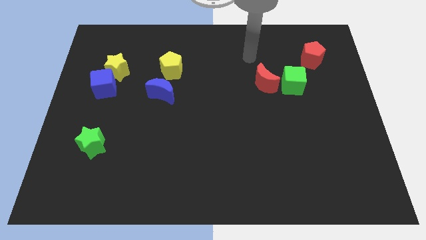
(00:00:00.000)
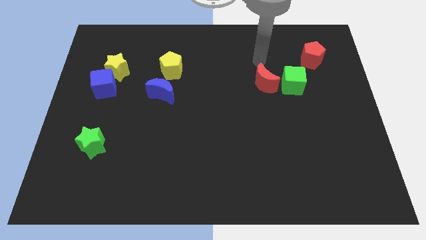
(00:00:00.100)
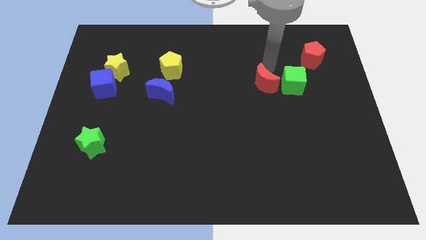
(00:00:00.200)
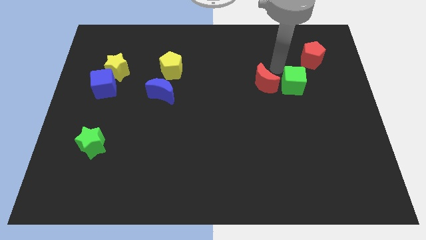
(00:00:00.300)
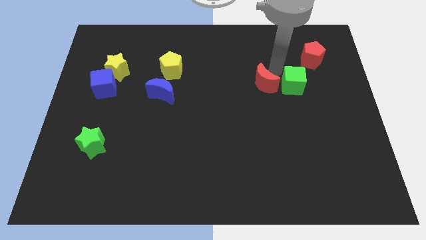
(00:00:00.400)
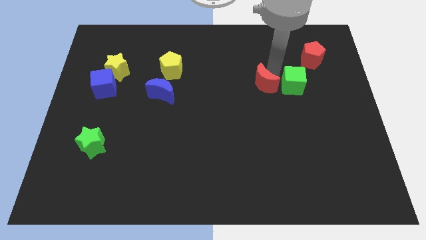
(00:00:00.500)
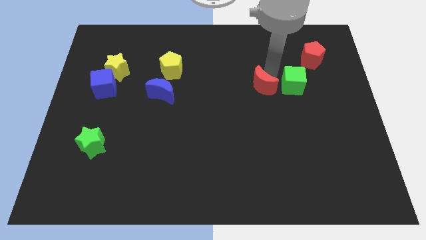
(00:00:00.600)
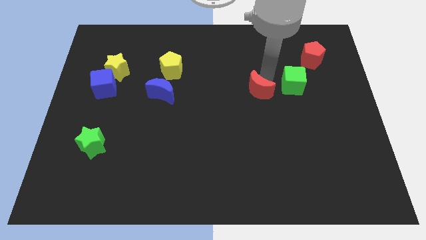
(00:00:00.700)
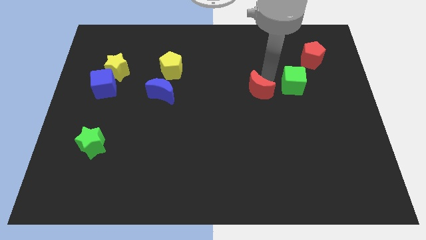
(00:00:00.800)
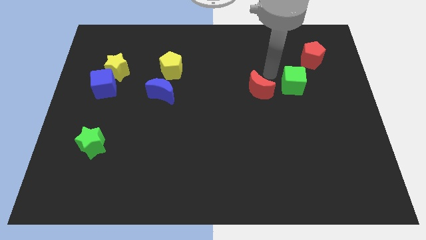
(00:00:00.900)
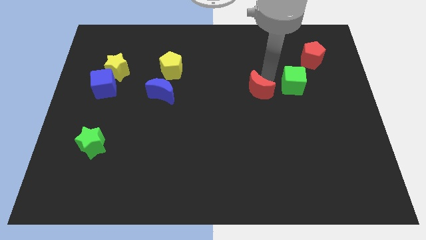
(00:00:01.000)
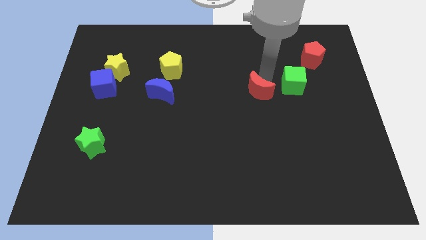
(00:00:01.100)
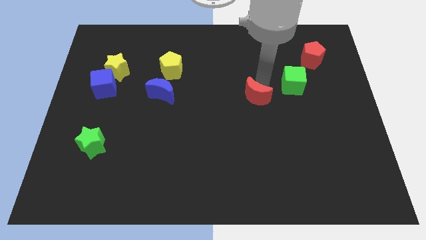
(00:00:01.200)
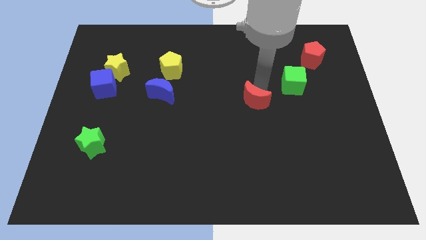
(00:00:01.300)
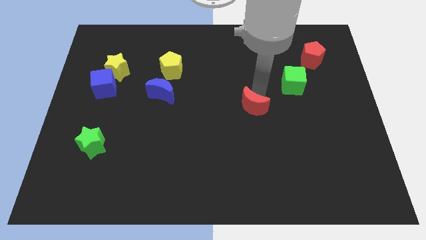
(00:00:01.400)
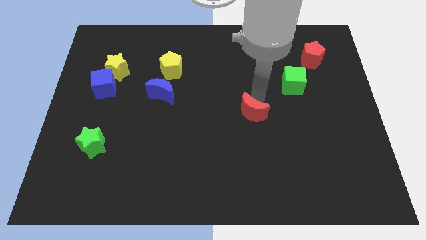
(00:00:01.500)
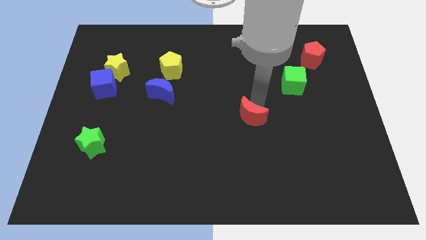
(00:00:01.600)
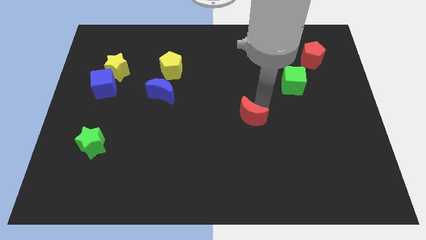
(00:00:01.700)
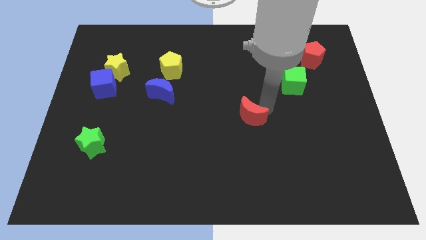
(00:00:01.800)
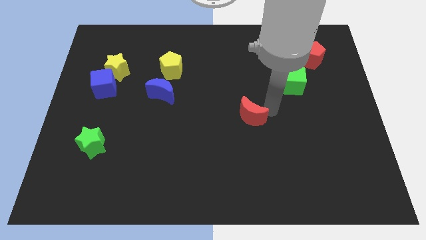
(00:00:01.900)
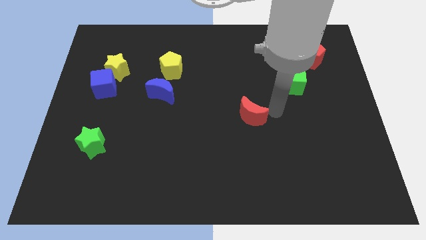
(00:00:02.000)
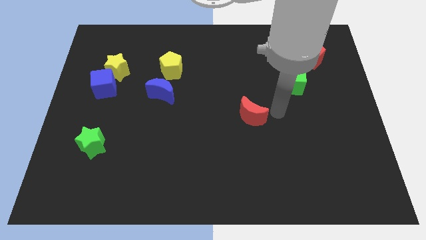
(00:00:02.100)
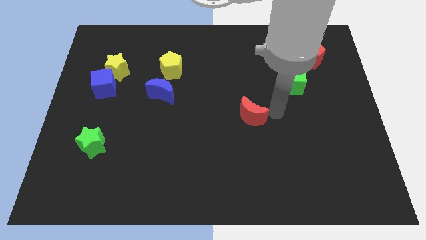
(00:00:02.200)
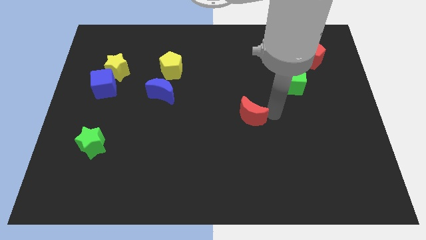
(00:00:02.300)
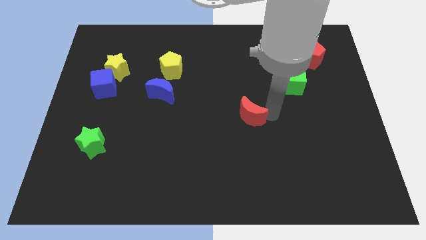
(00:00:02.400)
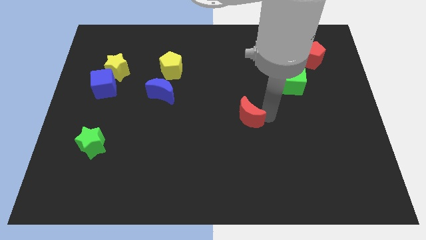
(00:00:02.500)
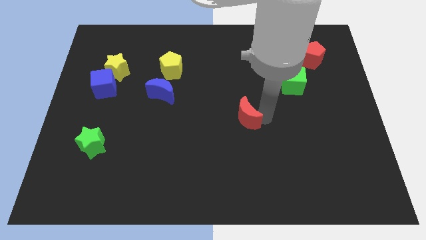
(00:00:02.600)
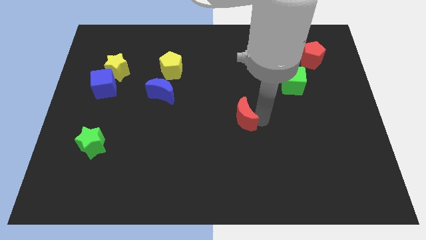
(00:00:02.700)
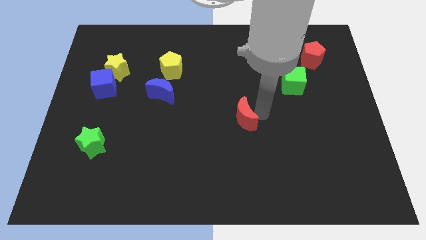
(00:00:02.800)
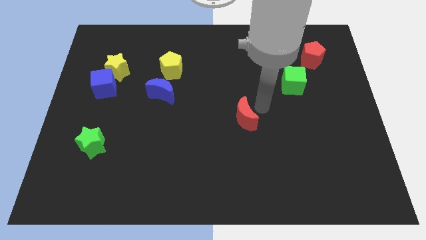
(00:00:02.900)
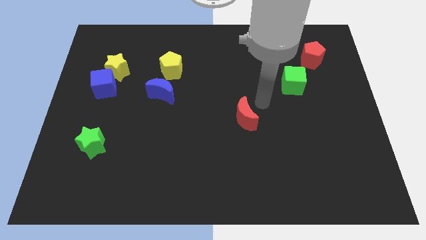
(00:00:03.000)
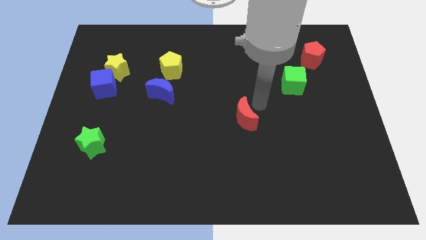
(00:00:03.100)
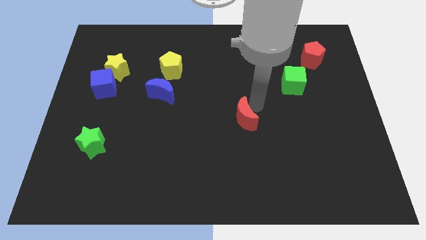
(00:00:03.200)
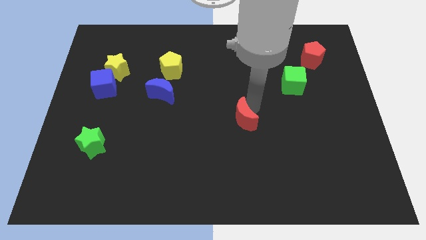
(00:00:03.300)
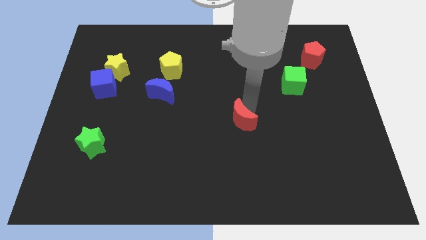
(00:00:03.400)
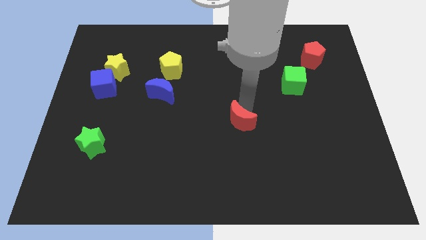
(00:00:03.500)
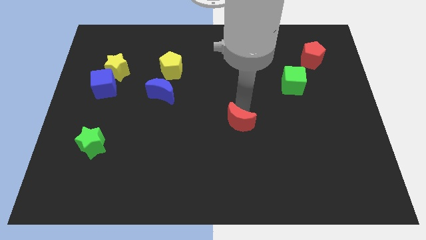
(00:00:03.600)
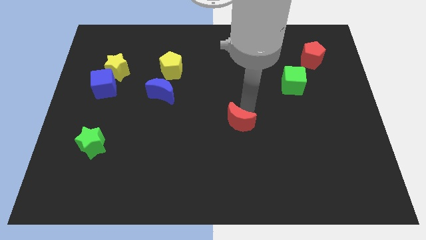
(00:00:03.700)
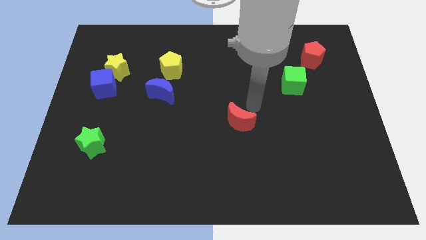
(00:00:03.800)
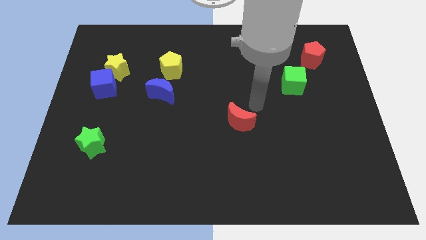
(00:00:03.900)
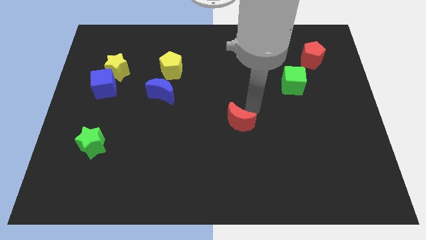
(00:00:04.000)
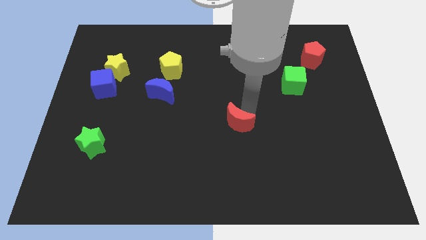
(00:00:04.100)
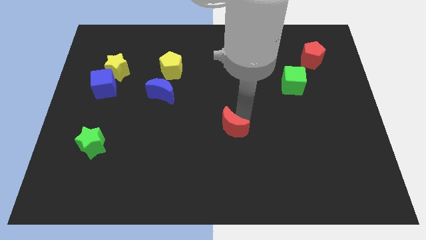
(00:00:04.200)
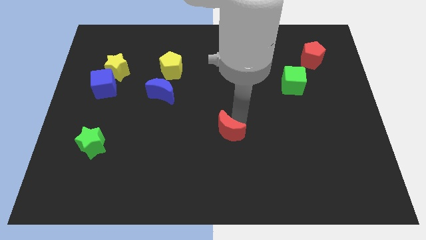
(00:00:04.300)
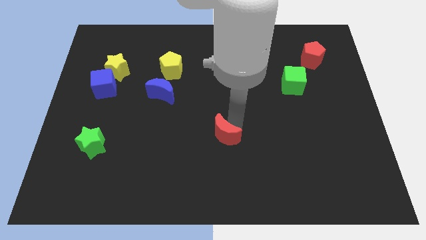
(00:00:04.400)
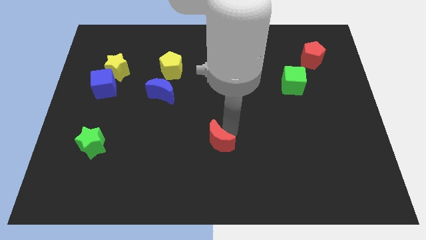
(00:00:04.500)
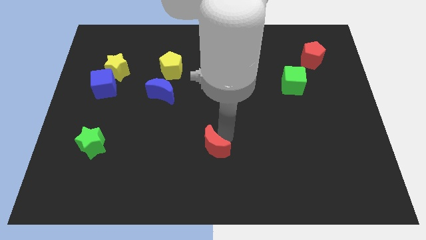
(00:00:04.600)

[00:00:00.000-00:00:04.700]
slide the red moon diagonally downwards and to the left

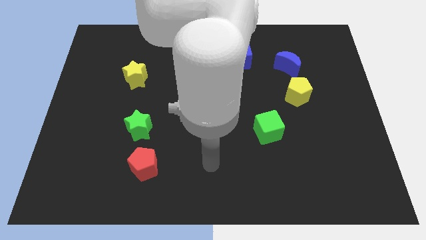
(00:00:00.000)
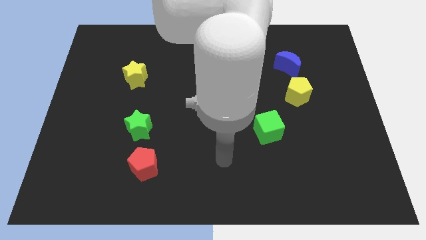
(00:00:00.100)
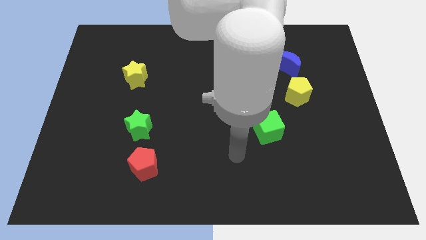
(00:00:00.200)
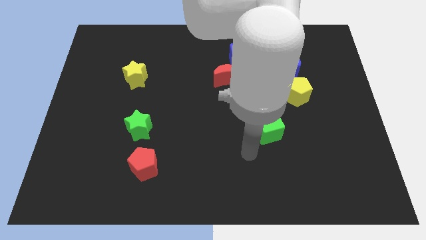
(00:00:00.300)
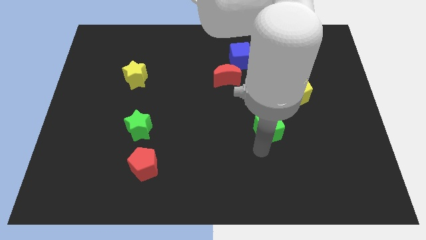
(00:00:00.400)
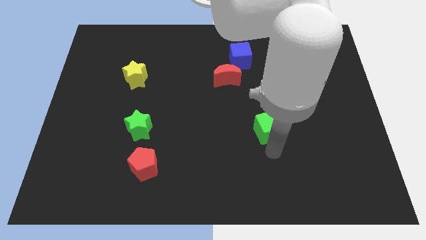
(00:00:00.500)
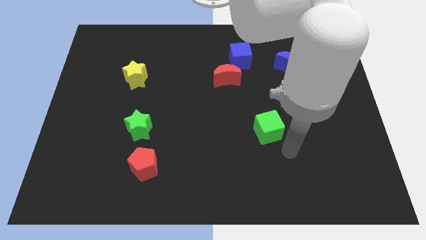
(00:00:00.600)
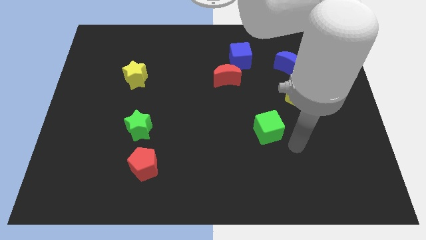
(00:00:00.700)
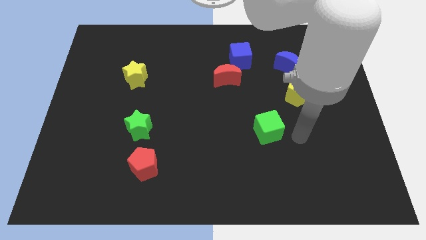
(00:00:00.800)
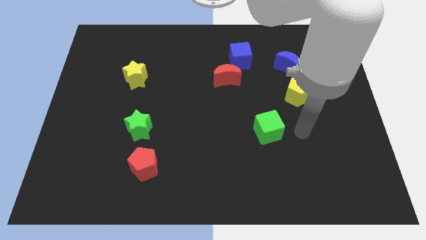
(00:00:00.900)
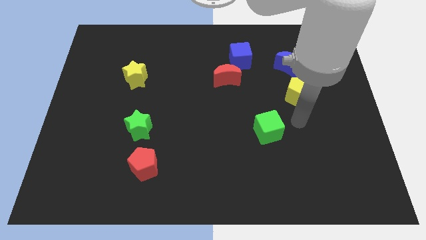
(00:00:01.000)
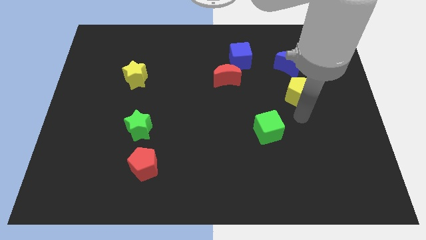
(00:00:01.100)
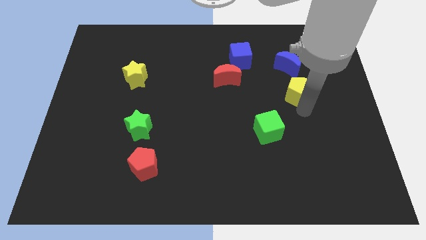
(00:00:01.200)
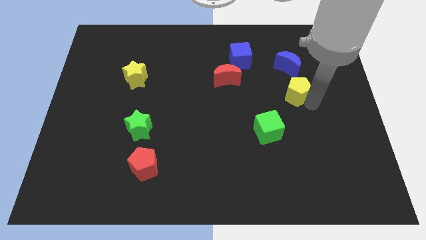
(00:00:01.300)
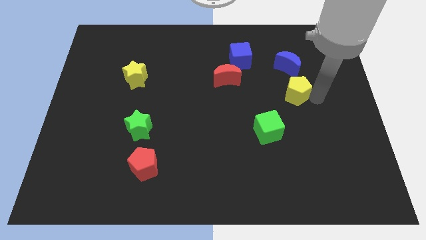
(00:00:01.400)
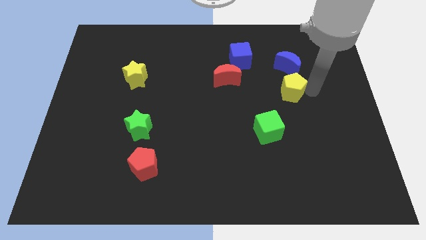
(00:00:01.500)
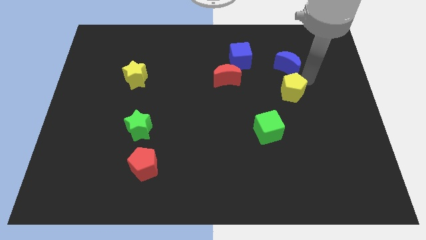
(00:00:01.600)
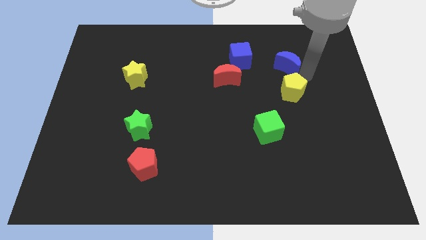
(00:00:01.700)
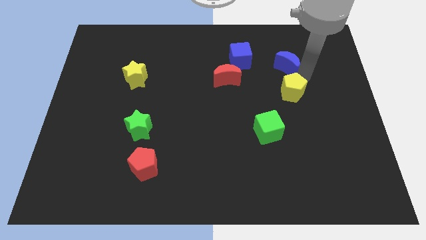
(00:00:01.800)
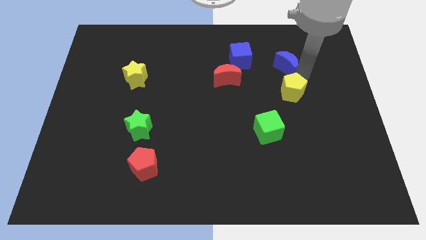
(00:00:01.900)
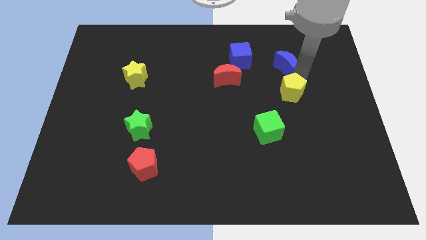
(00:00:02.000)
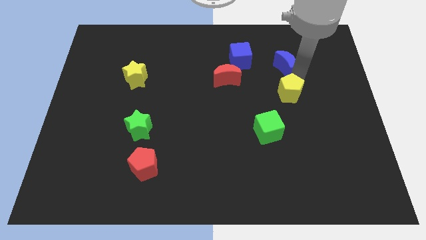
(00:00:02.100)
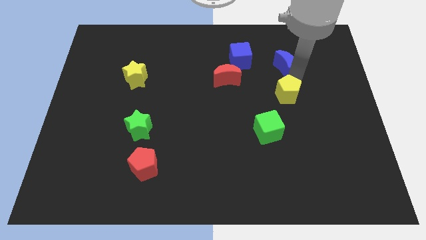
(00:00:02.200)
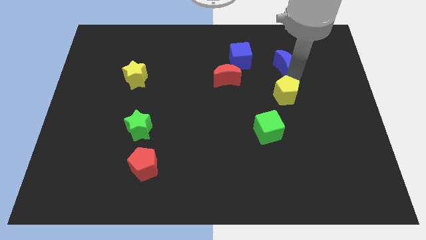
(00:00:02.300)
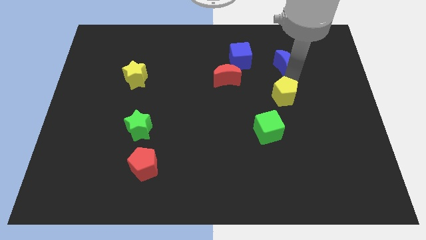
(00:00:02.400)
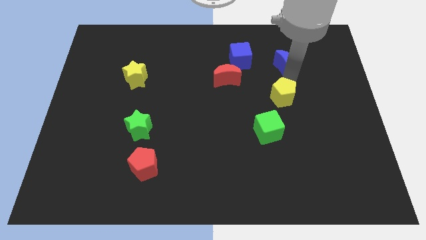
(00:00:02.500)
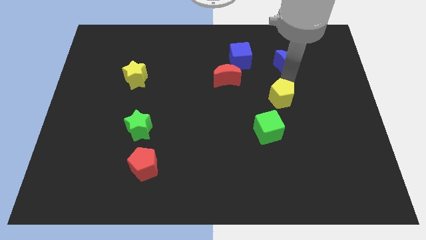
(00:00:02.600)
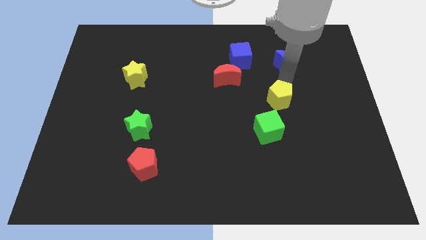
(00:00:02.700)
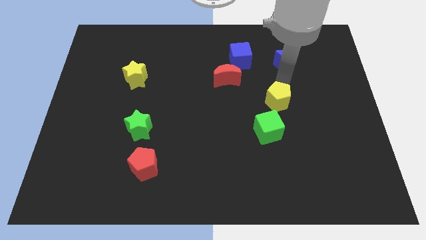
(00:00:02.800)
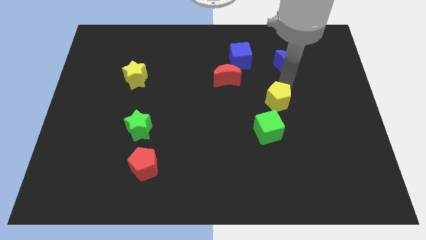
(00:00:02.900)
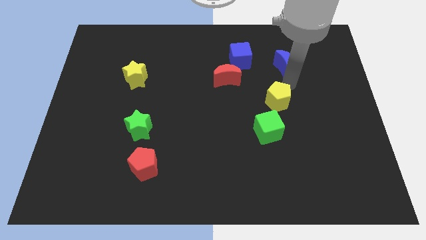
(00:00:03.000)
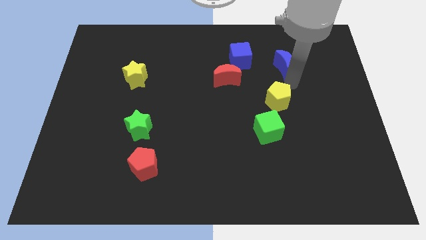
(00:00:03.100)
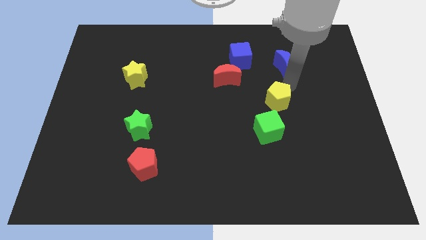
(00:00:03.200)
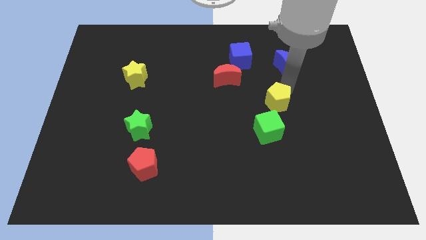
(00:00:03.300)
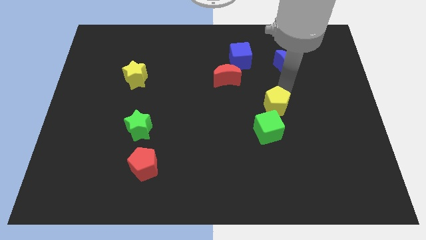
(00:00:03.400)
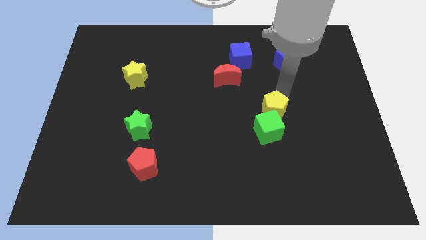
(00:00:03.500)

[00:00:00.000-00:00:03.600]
move the yellow pentagon down and to the left a little
